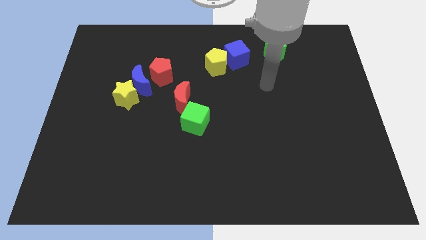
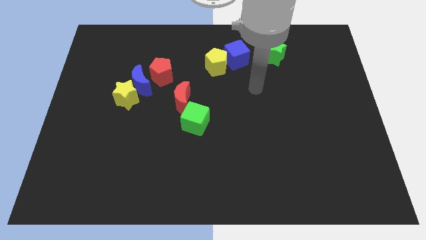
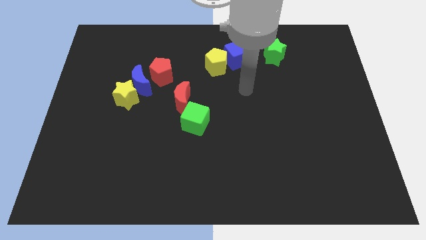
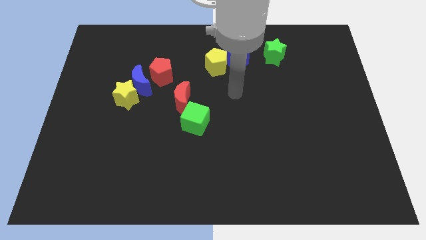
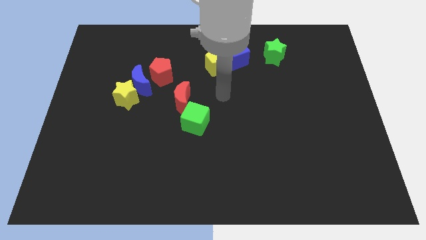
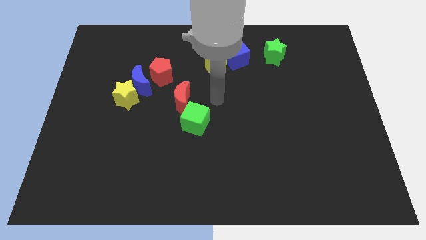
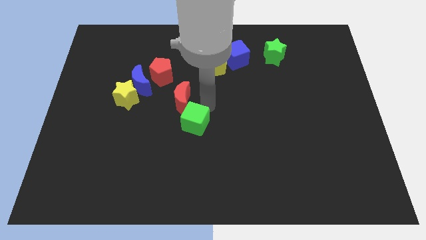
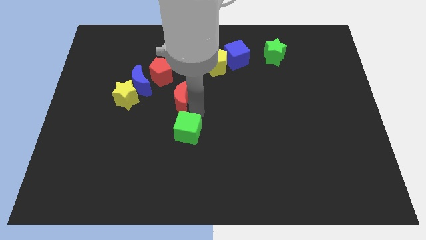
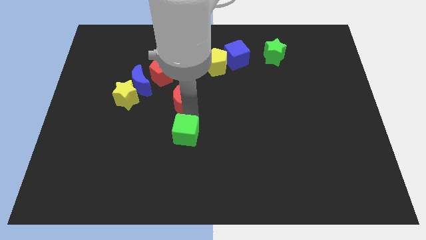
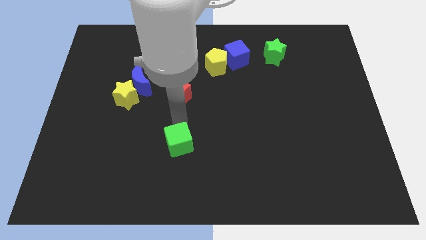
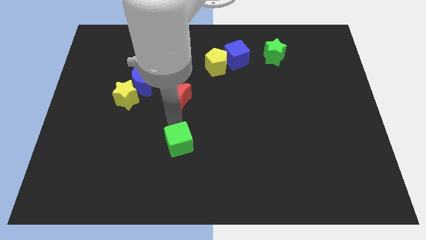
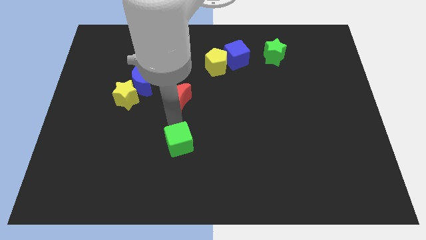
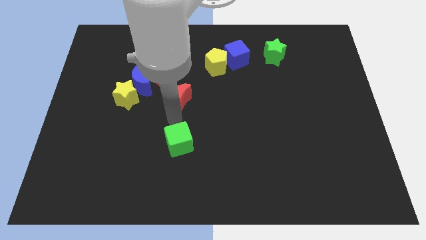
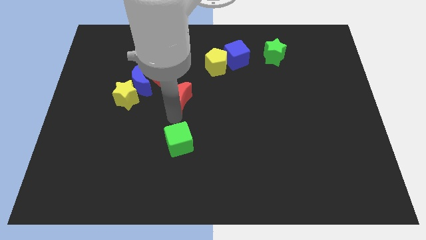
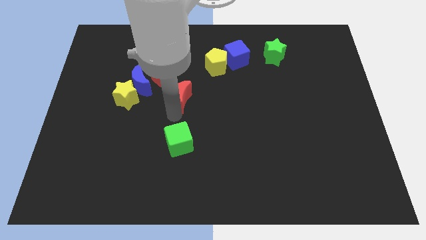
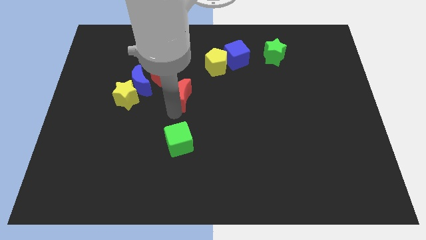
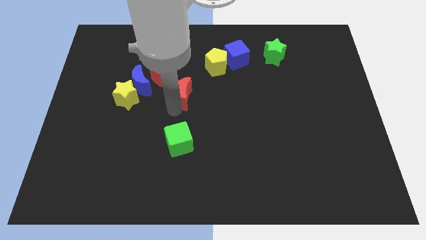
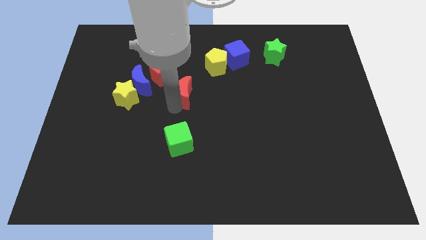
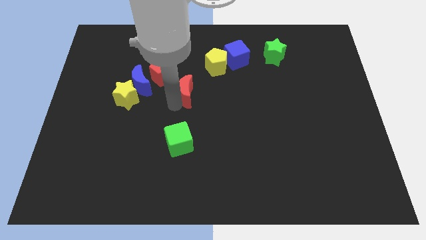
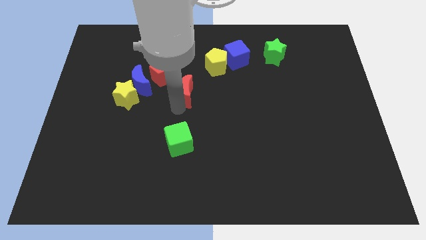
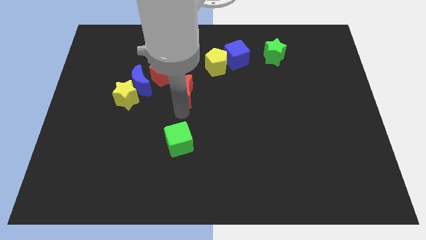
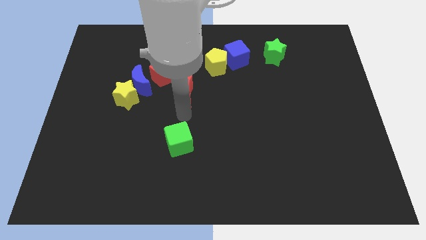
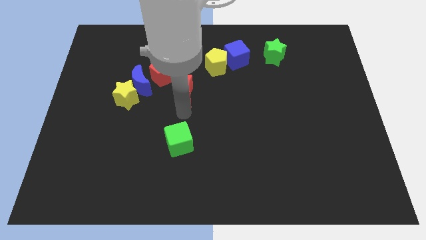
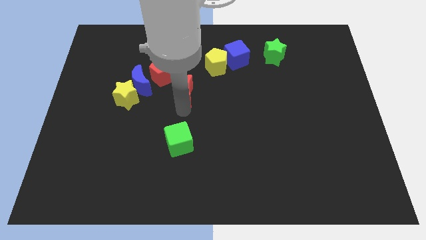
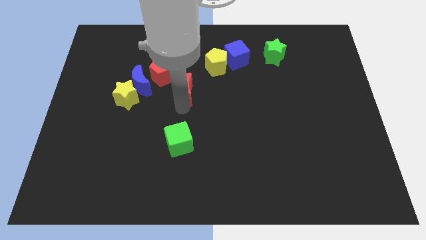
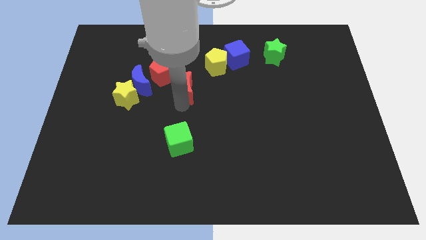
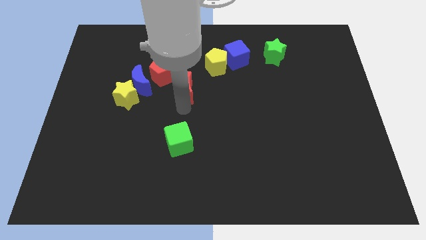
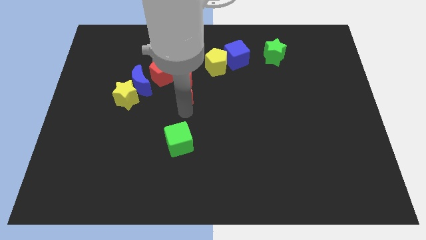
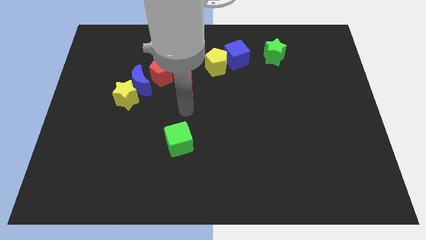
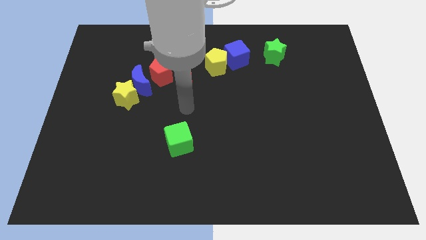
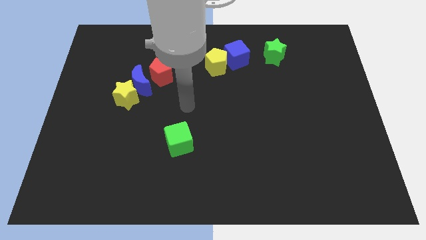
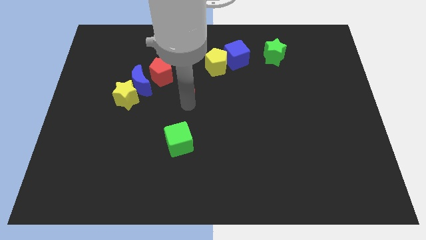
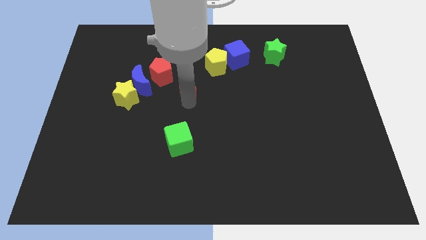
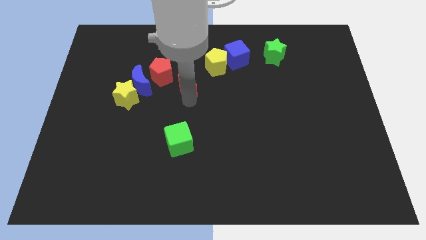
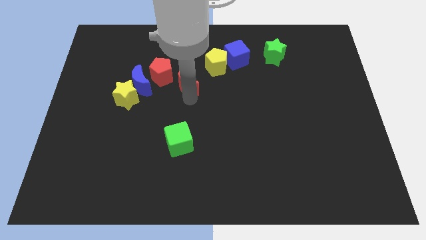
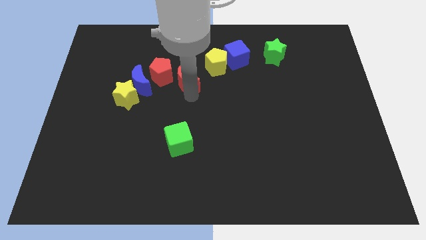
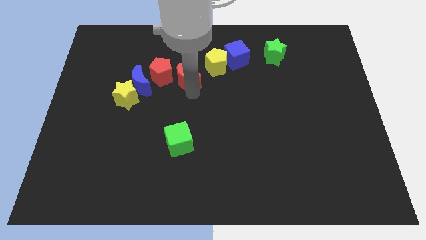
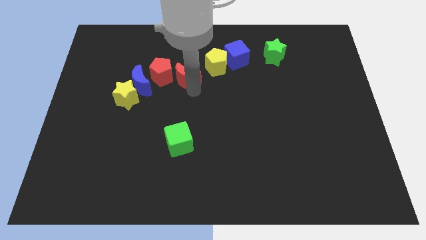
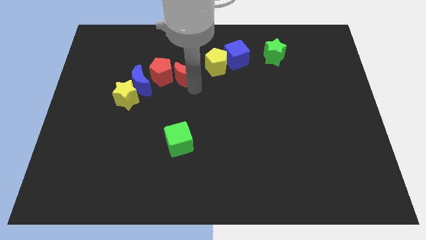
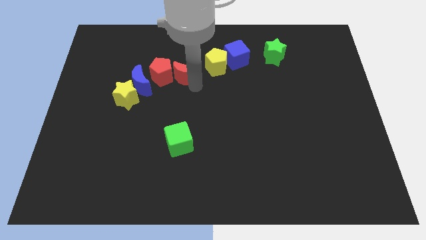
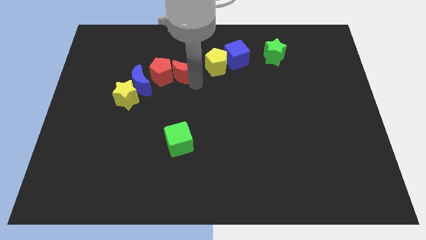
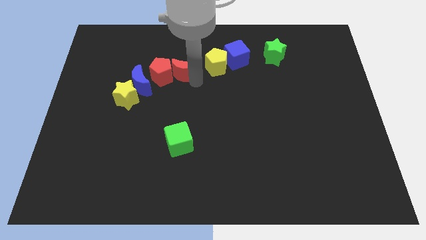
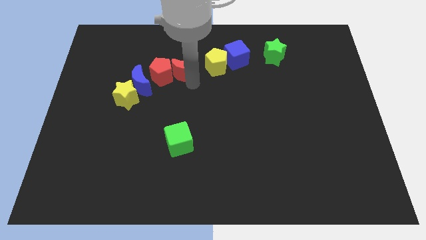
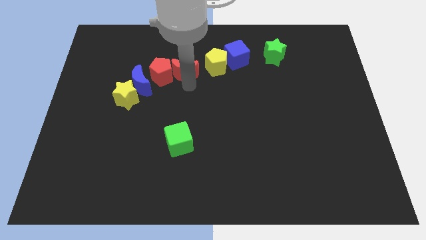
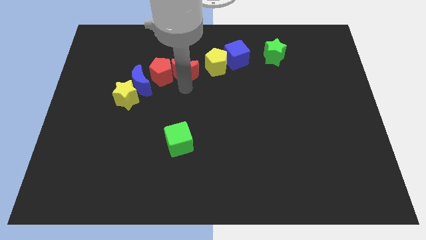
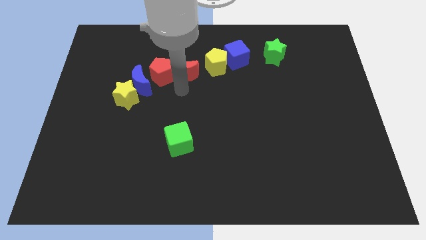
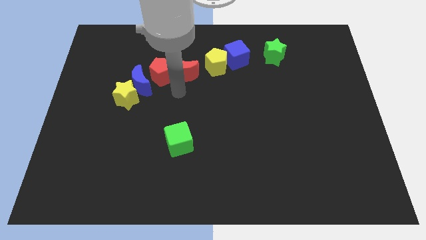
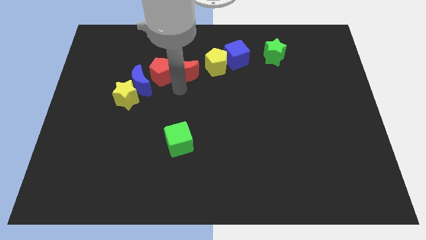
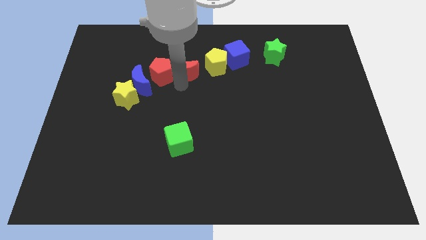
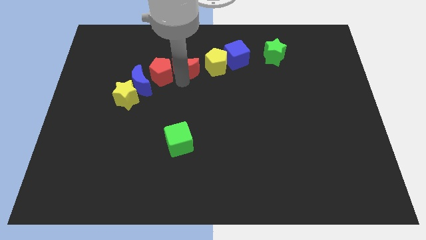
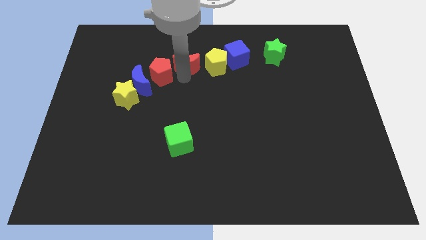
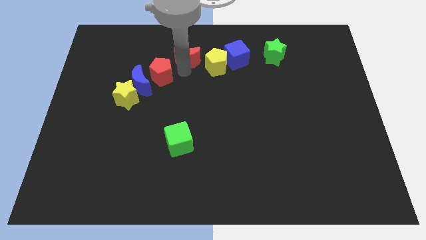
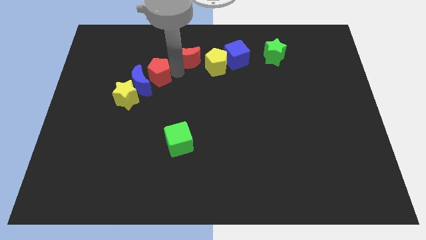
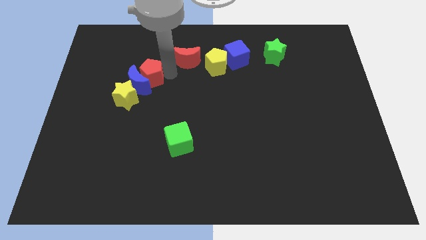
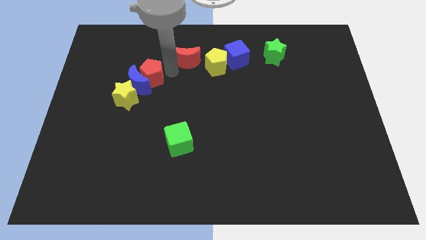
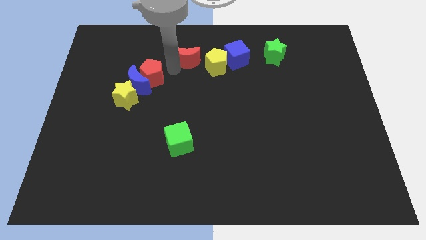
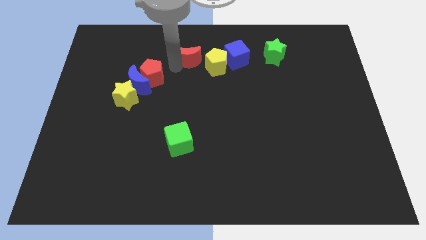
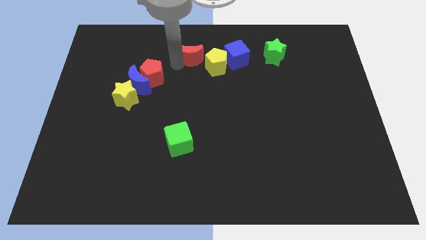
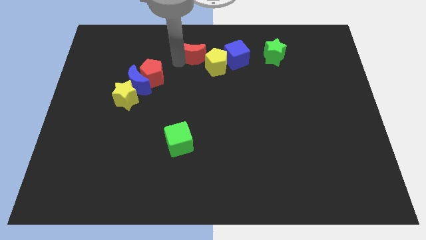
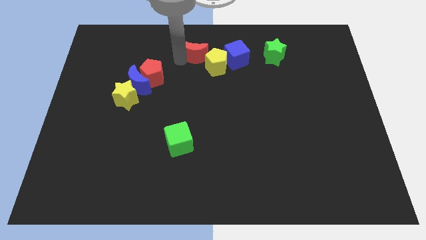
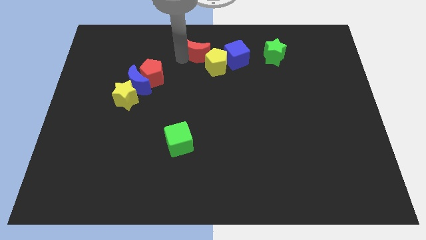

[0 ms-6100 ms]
move the red moon to the towards your base

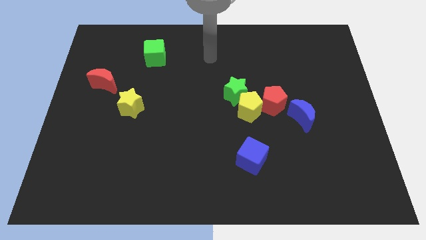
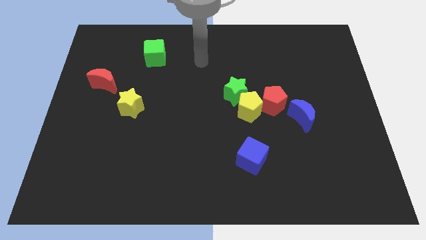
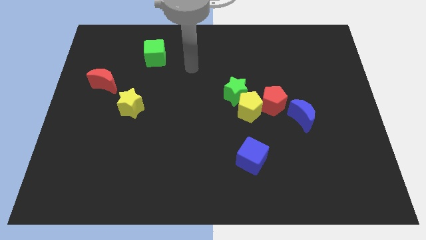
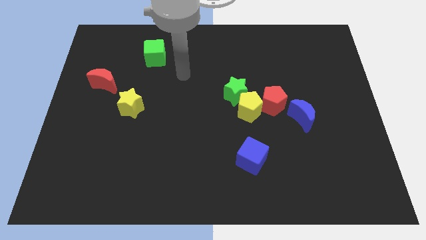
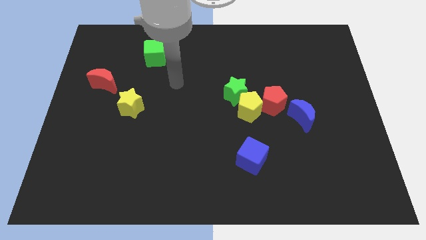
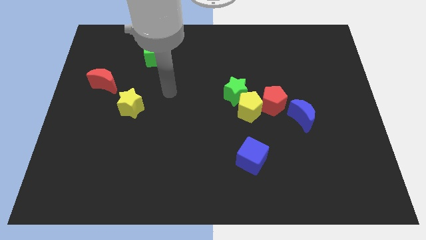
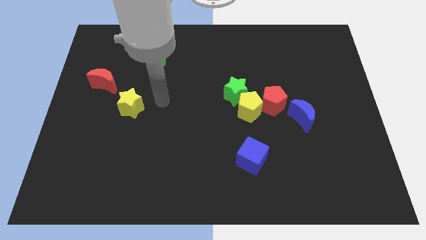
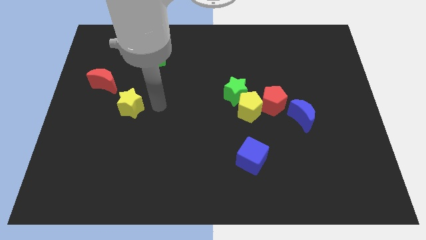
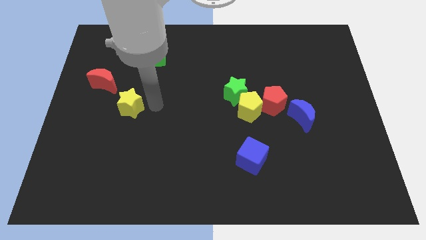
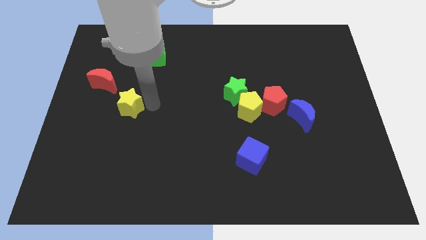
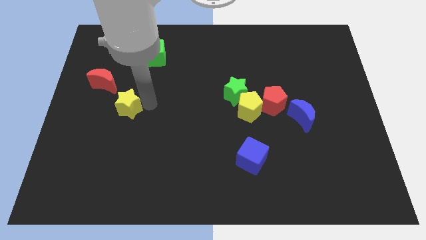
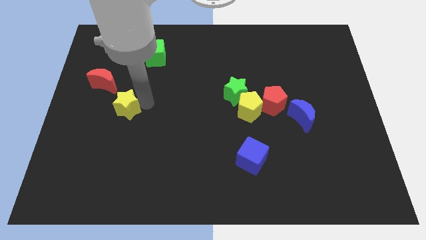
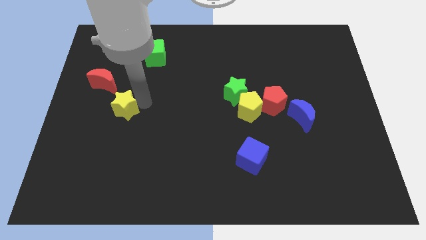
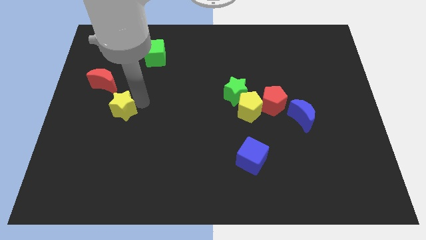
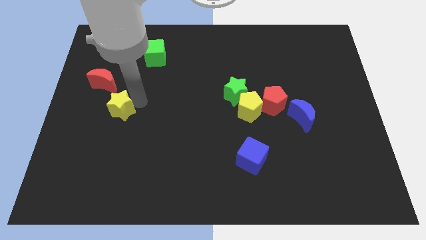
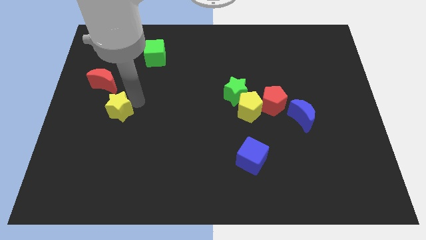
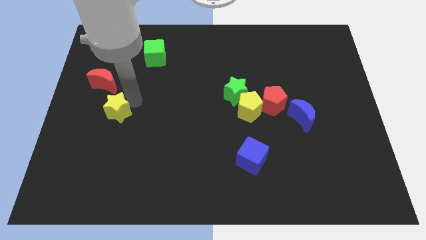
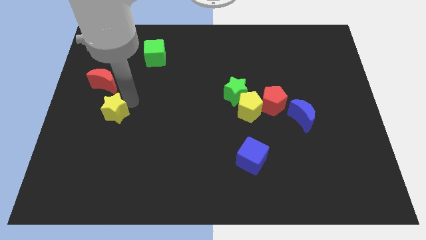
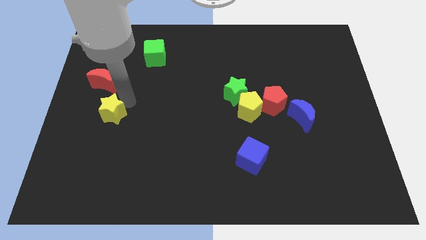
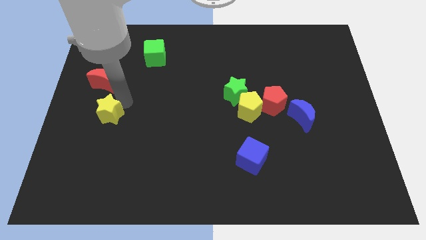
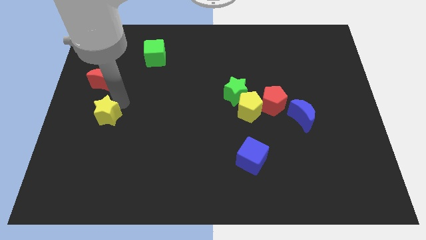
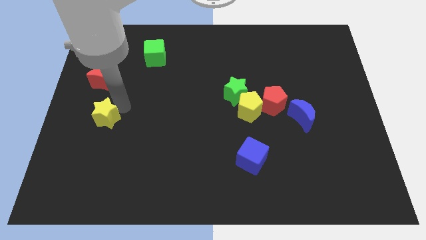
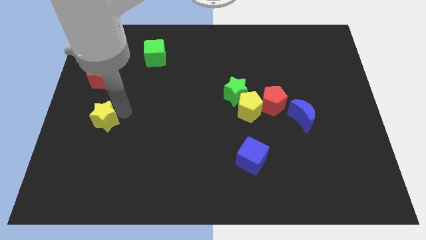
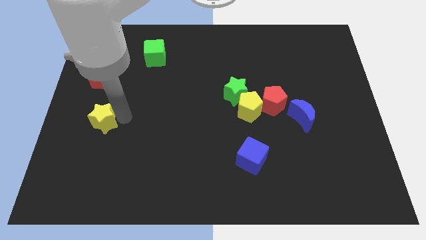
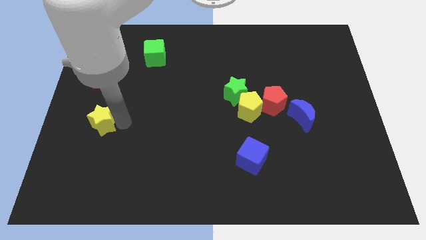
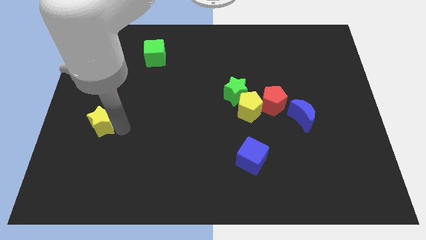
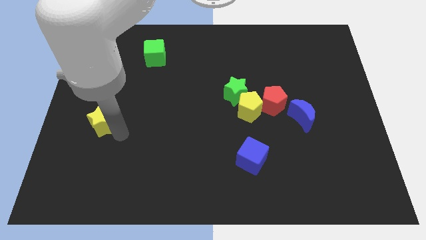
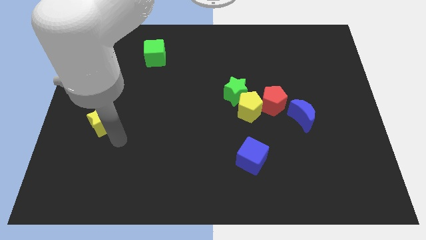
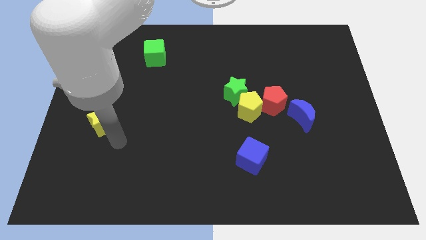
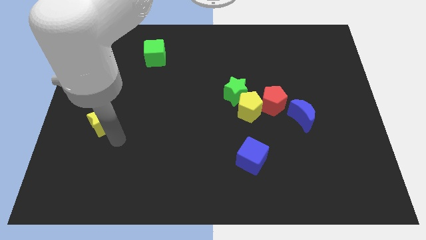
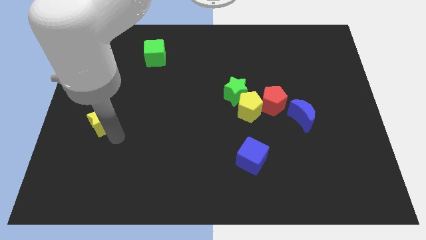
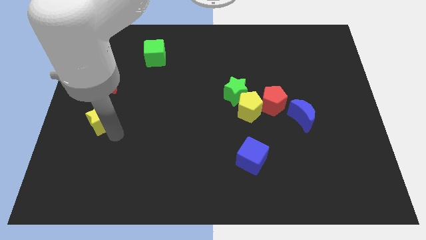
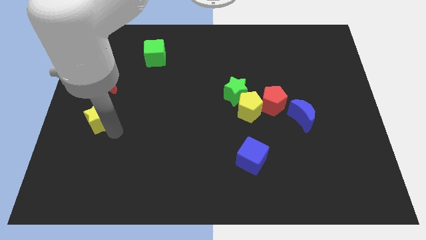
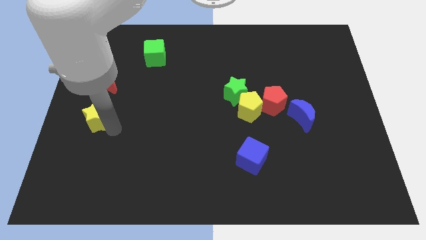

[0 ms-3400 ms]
slide the yellow star to the left side
